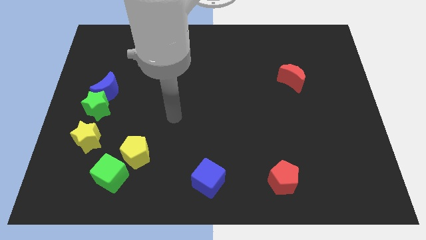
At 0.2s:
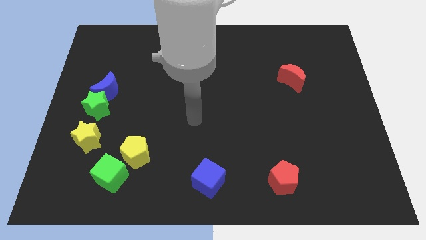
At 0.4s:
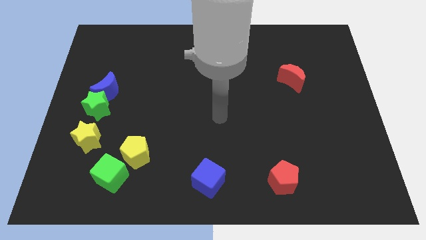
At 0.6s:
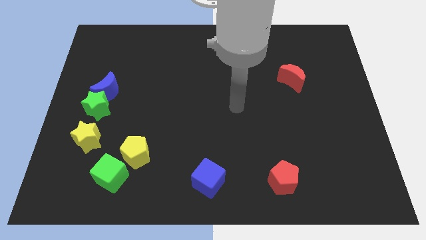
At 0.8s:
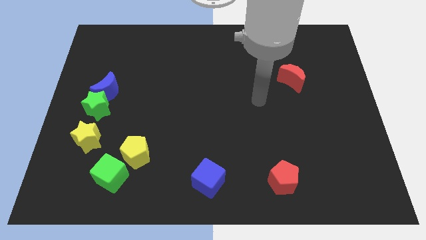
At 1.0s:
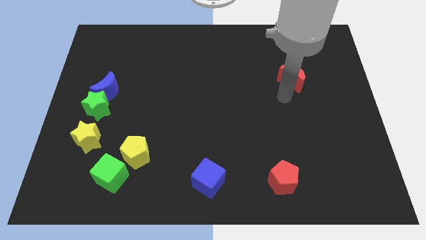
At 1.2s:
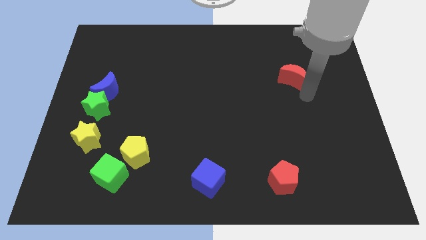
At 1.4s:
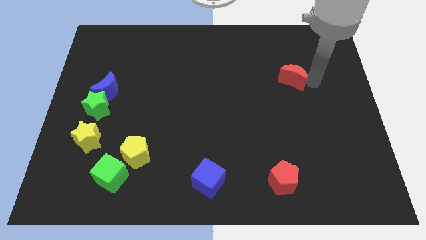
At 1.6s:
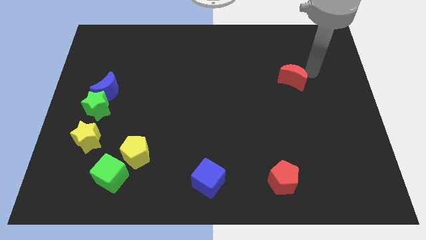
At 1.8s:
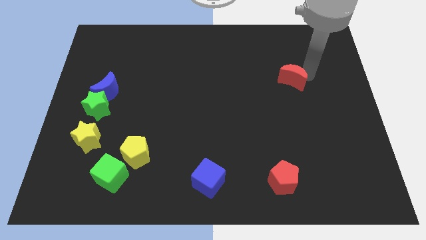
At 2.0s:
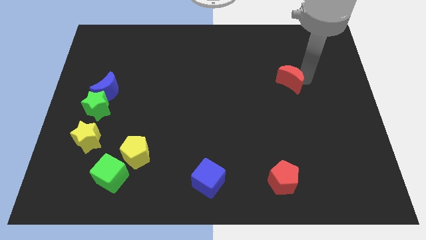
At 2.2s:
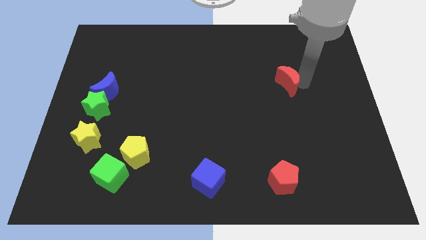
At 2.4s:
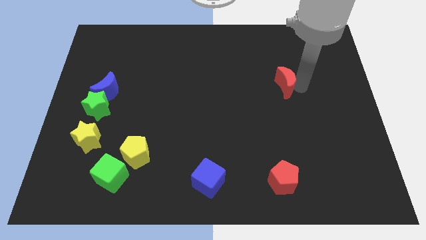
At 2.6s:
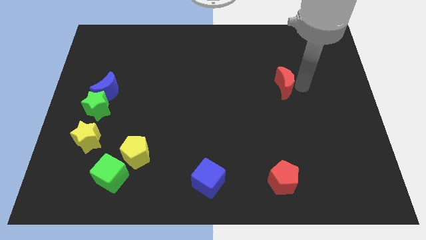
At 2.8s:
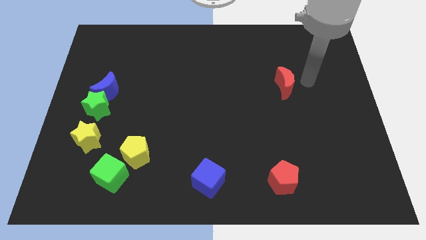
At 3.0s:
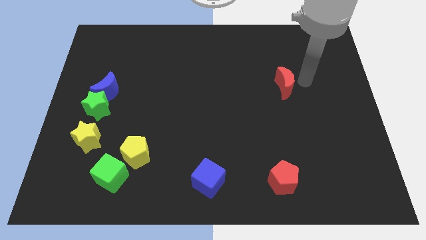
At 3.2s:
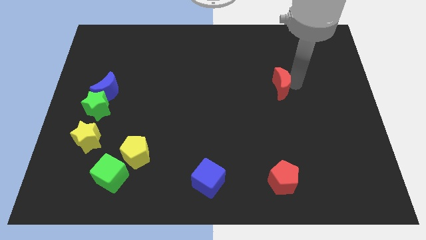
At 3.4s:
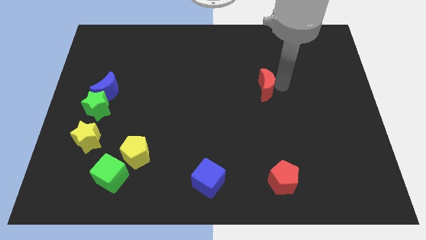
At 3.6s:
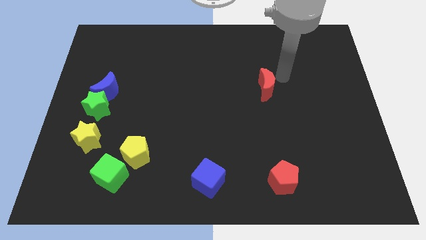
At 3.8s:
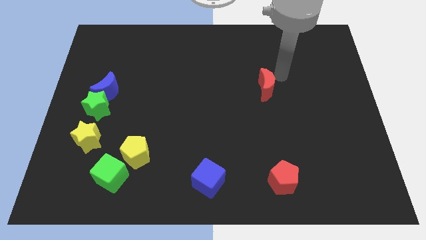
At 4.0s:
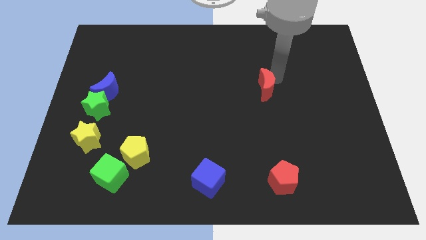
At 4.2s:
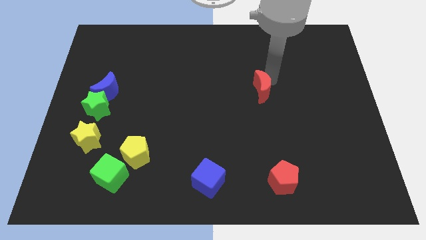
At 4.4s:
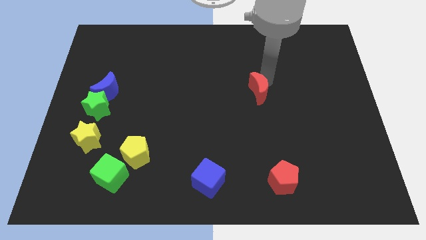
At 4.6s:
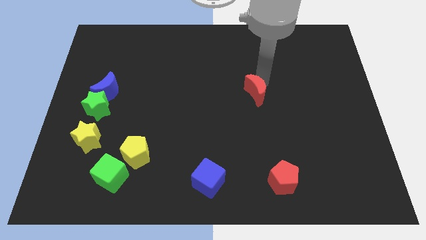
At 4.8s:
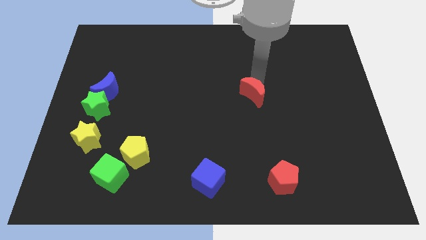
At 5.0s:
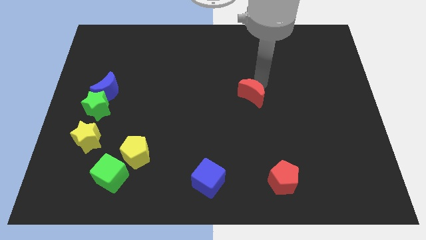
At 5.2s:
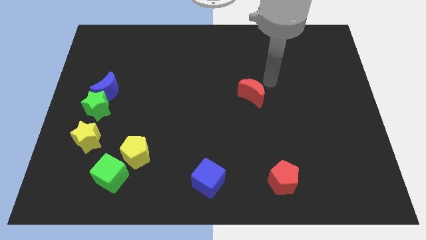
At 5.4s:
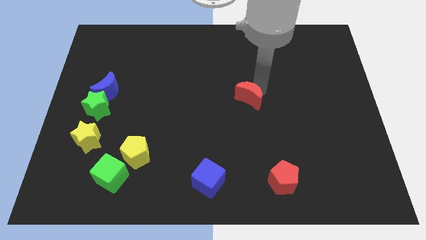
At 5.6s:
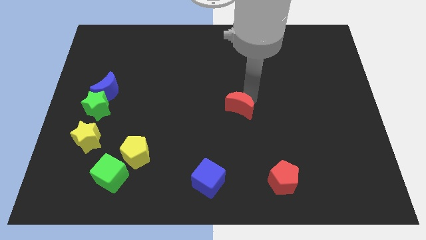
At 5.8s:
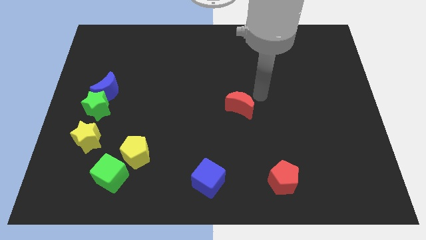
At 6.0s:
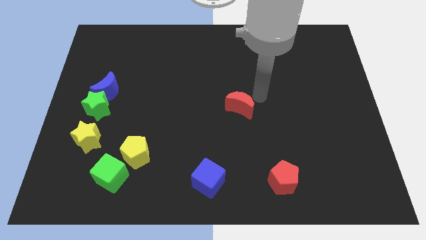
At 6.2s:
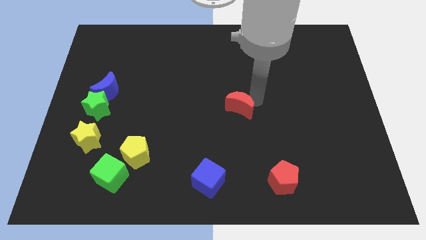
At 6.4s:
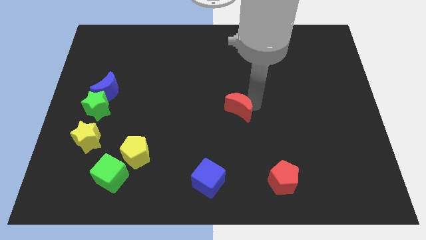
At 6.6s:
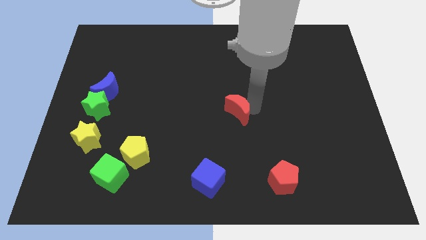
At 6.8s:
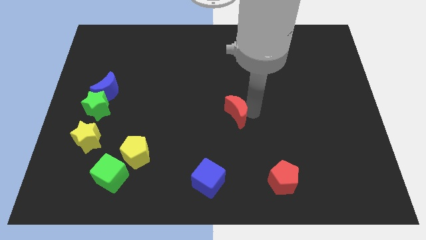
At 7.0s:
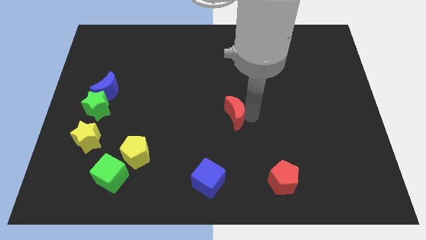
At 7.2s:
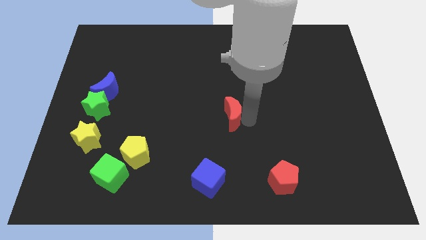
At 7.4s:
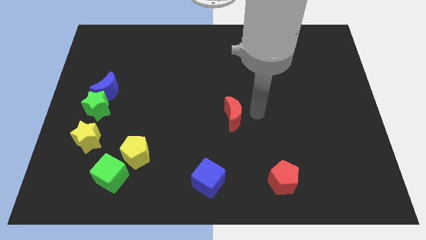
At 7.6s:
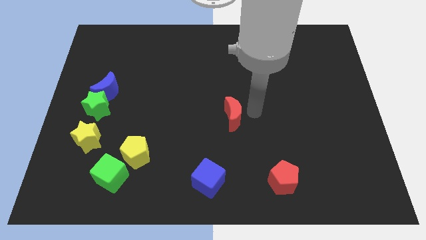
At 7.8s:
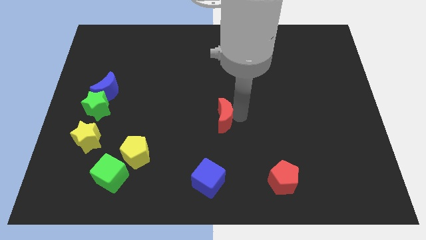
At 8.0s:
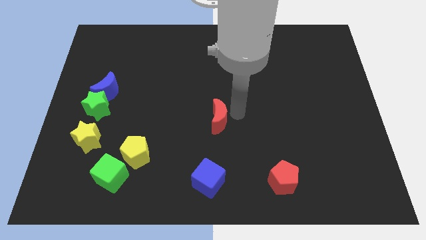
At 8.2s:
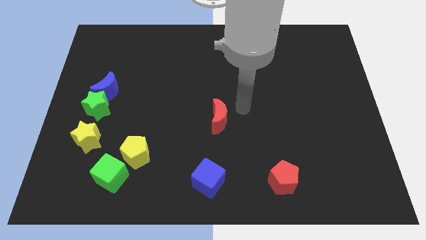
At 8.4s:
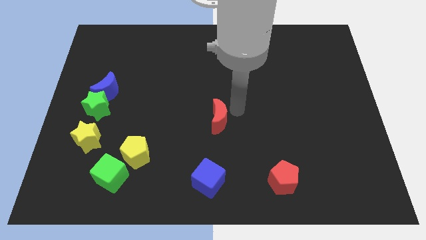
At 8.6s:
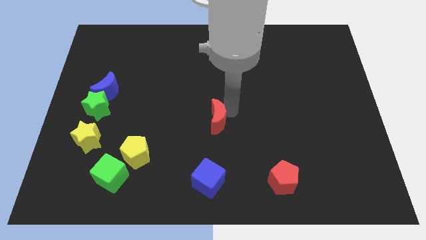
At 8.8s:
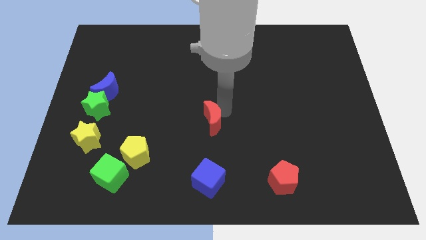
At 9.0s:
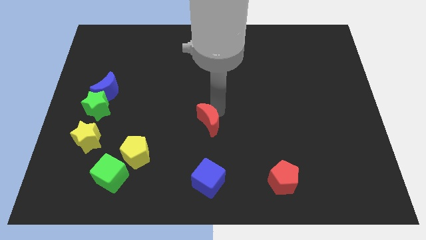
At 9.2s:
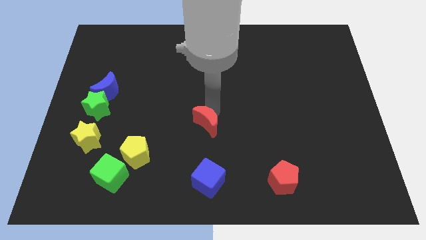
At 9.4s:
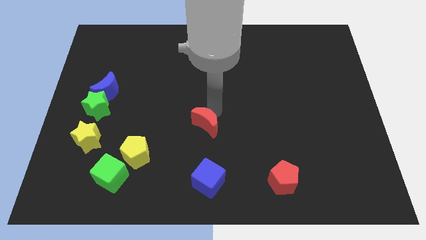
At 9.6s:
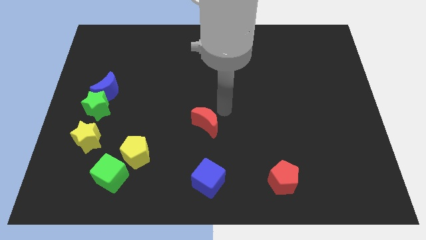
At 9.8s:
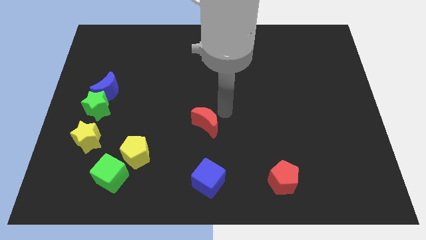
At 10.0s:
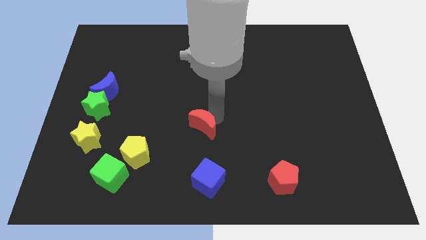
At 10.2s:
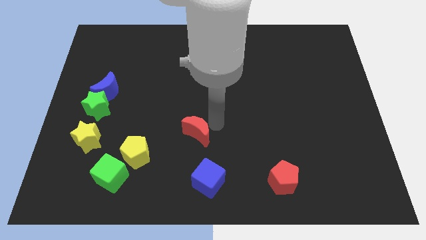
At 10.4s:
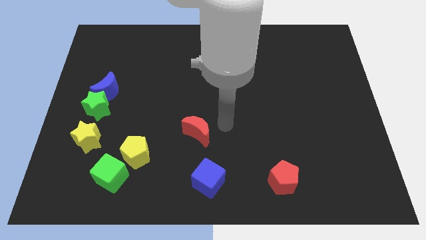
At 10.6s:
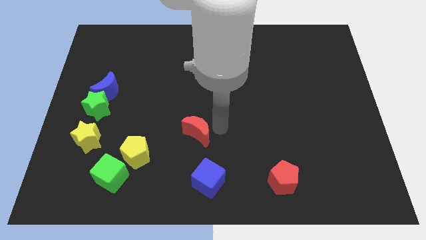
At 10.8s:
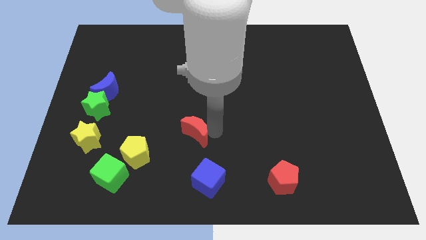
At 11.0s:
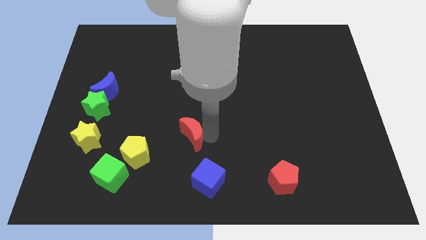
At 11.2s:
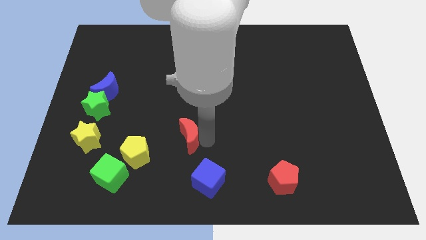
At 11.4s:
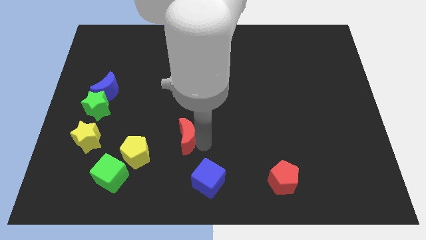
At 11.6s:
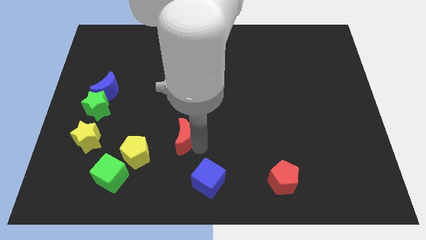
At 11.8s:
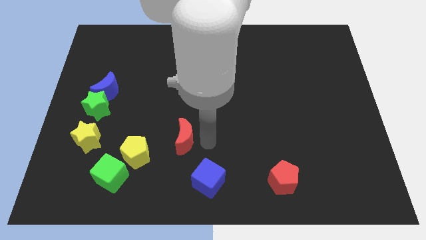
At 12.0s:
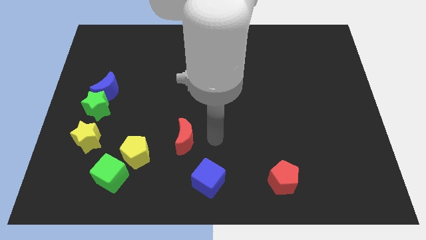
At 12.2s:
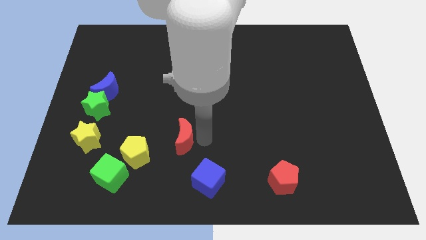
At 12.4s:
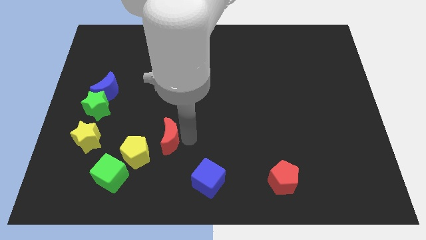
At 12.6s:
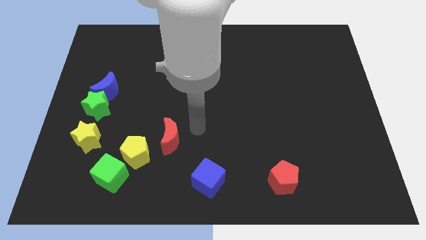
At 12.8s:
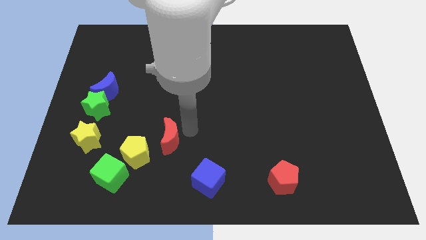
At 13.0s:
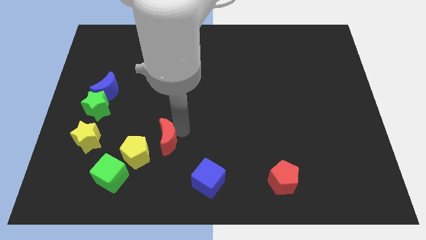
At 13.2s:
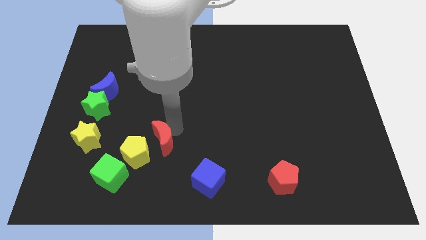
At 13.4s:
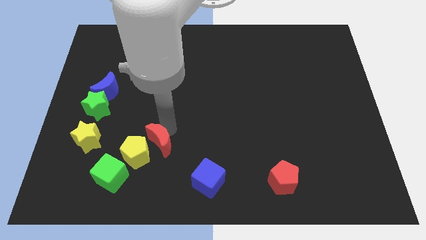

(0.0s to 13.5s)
push the red moon next to the yellow pentagon

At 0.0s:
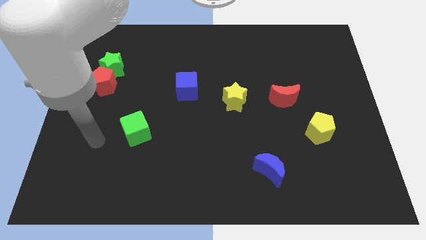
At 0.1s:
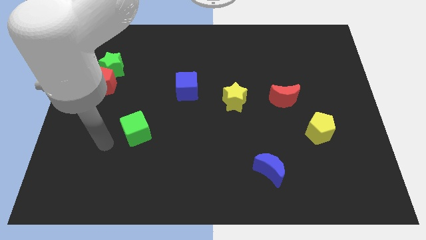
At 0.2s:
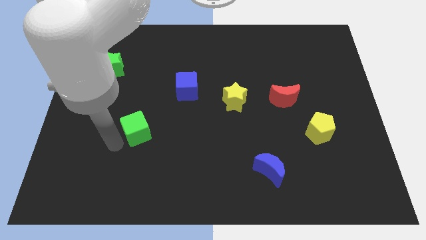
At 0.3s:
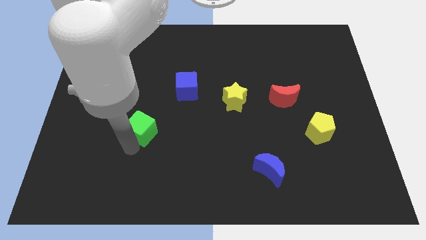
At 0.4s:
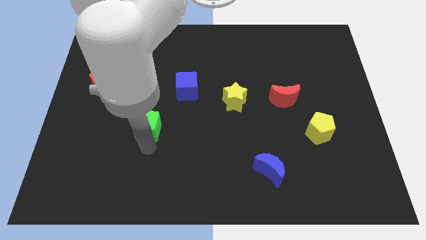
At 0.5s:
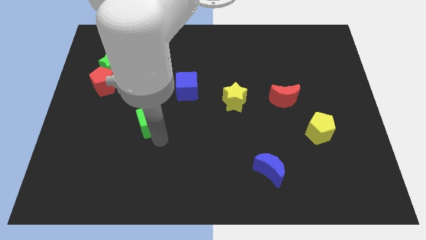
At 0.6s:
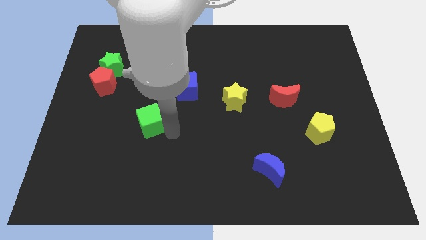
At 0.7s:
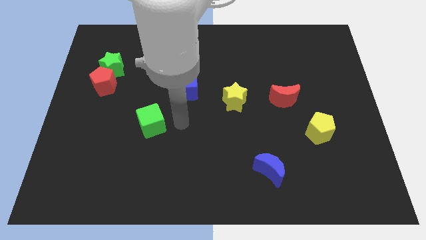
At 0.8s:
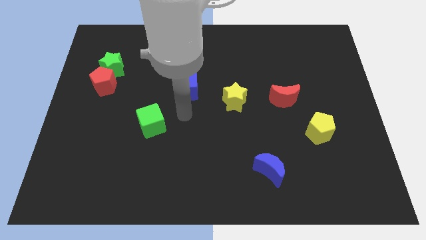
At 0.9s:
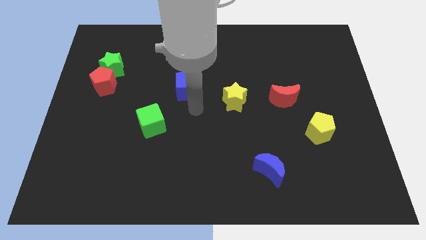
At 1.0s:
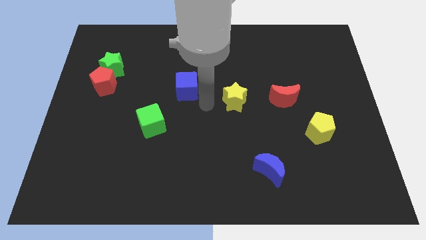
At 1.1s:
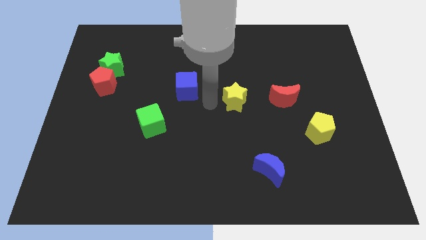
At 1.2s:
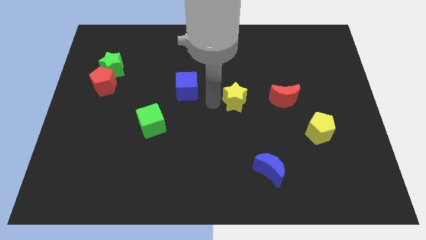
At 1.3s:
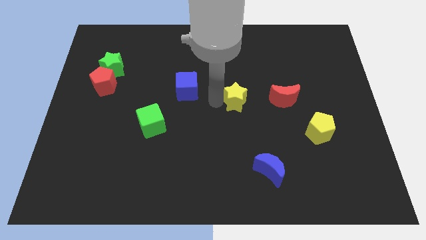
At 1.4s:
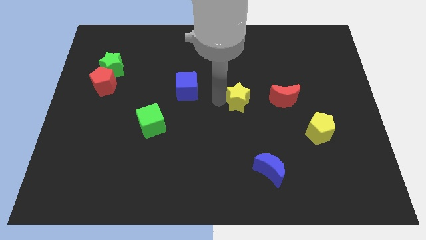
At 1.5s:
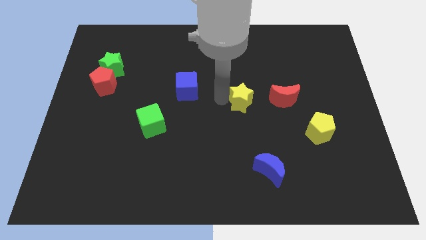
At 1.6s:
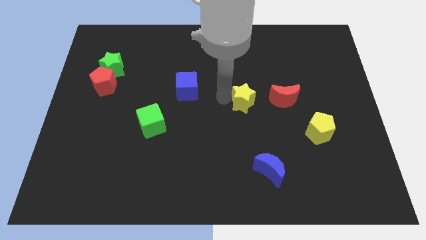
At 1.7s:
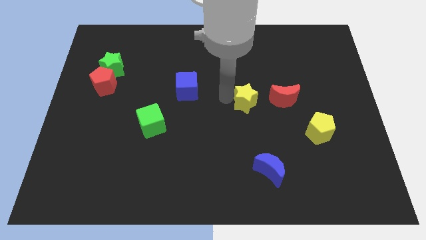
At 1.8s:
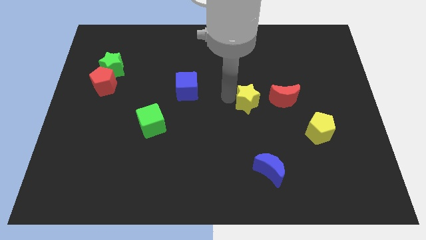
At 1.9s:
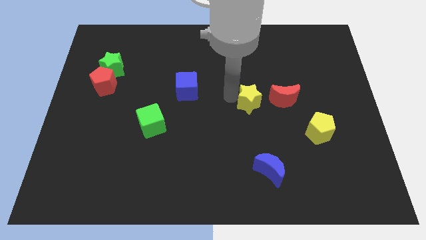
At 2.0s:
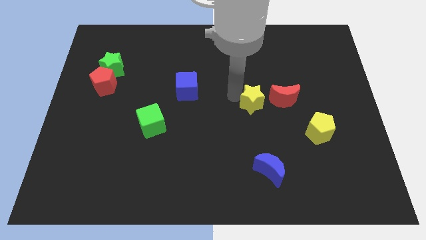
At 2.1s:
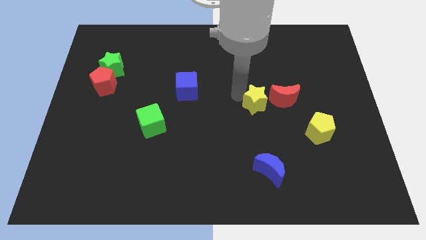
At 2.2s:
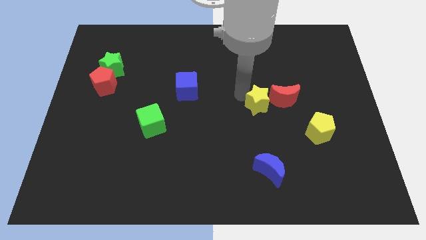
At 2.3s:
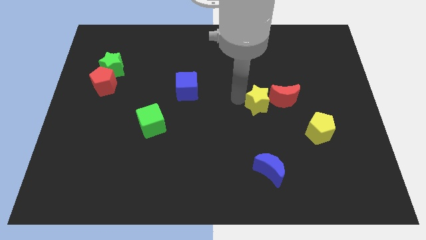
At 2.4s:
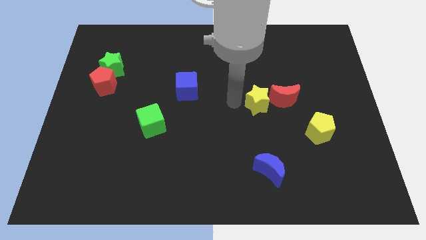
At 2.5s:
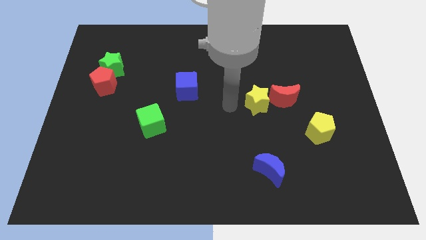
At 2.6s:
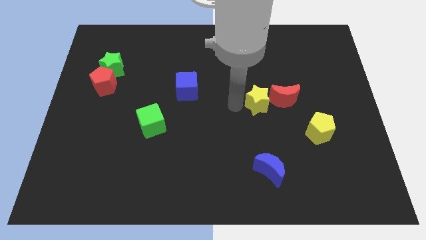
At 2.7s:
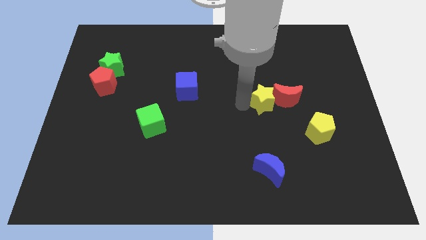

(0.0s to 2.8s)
move the yellow star next to the red moon
